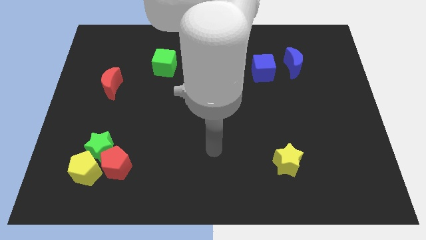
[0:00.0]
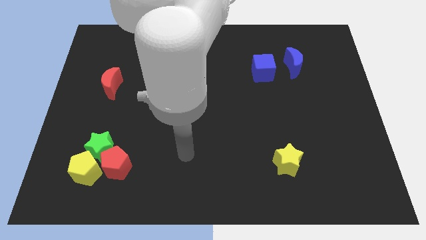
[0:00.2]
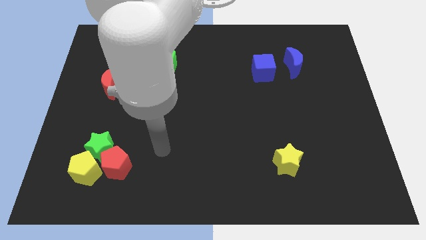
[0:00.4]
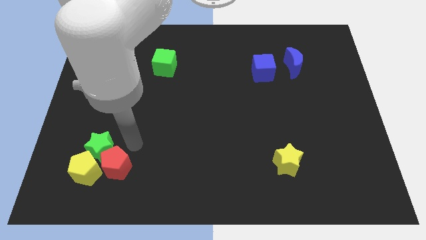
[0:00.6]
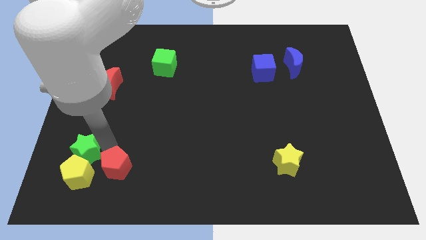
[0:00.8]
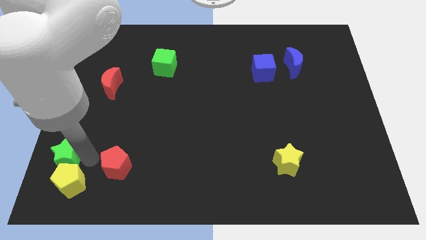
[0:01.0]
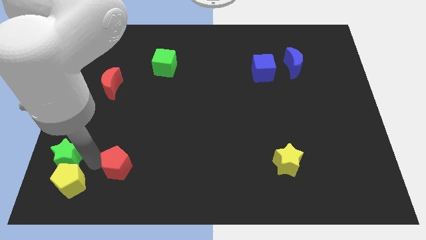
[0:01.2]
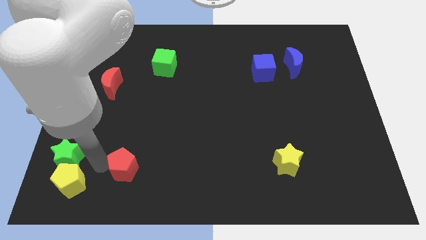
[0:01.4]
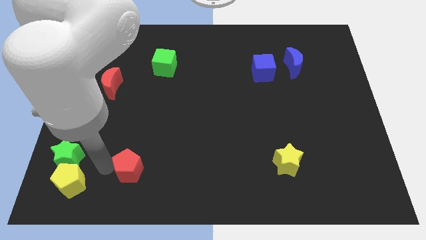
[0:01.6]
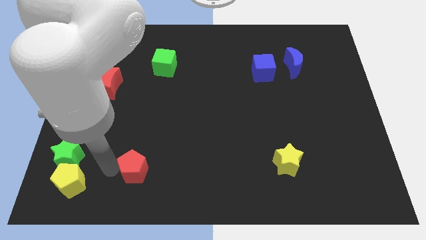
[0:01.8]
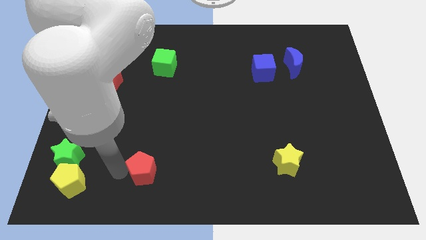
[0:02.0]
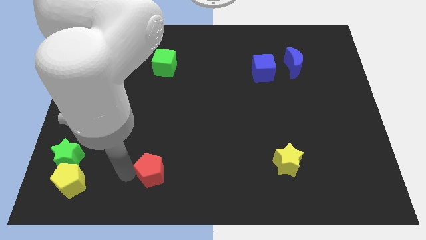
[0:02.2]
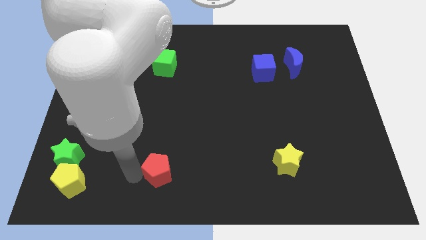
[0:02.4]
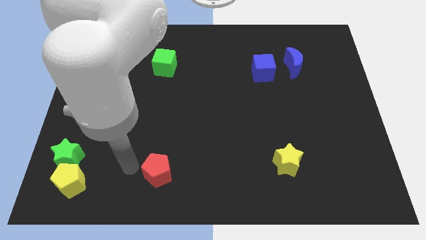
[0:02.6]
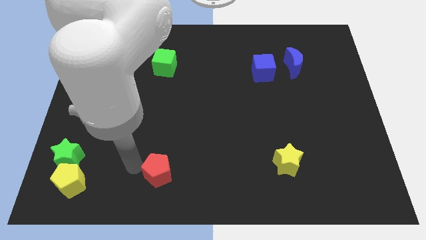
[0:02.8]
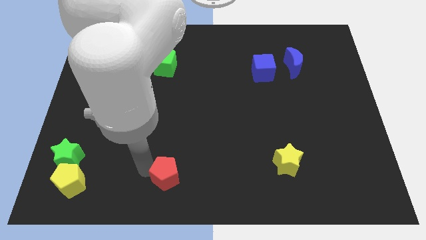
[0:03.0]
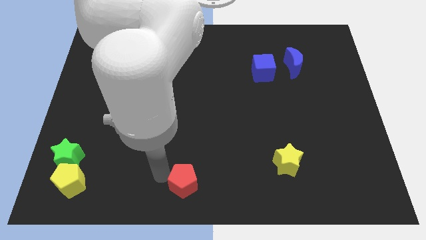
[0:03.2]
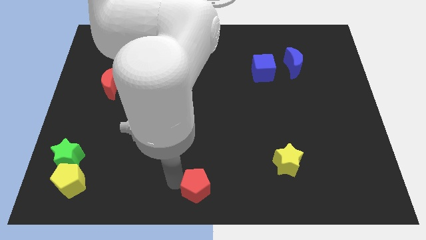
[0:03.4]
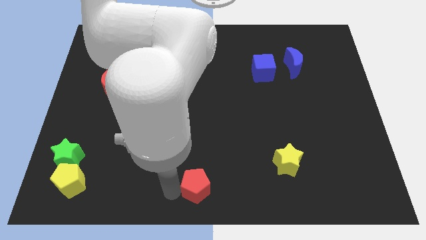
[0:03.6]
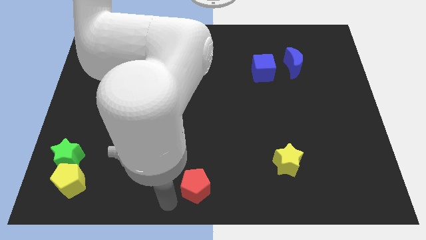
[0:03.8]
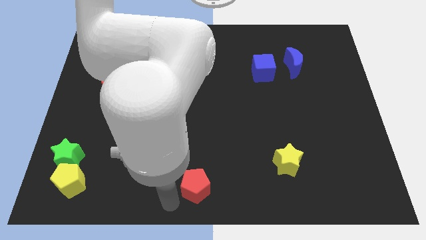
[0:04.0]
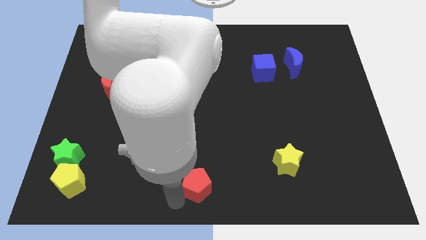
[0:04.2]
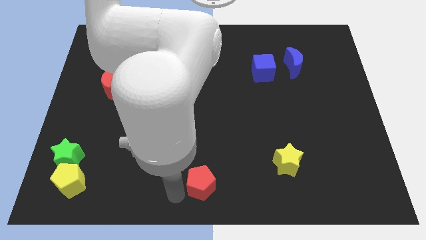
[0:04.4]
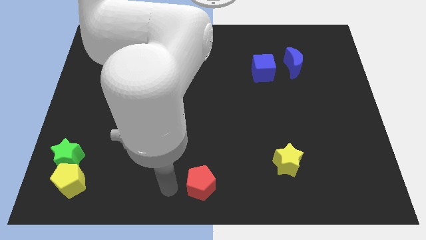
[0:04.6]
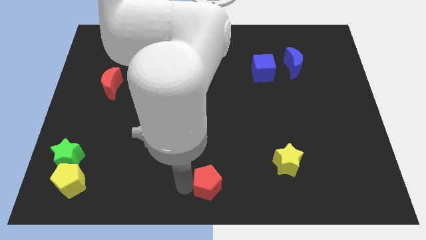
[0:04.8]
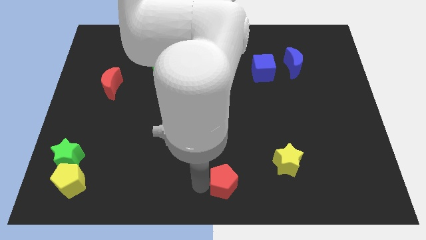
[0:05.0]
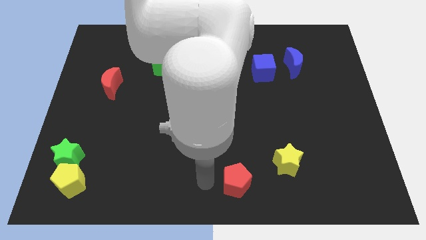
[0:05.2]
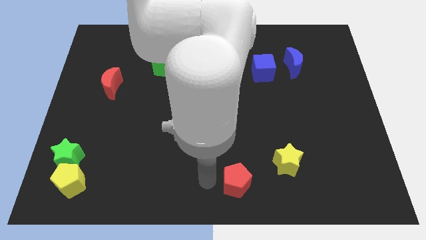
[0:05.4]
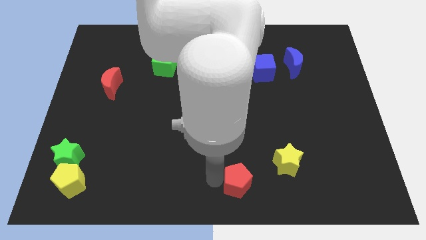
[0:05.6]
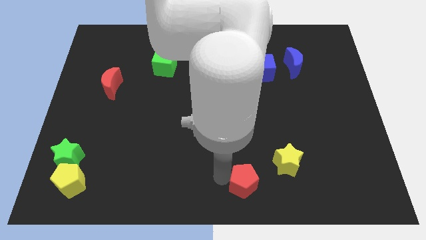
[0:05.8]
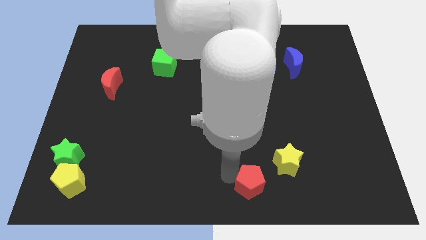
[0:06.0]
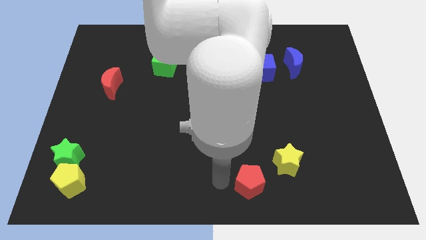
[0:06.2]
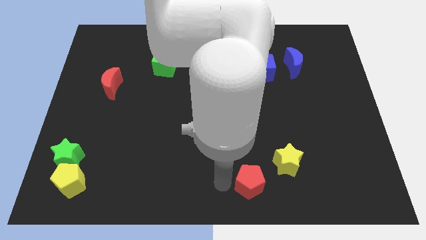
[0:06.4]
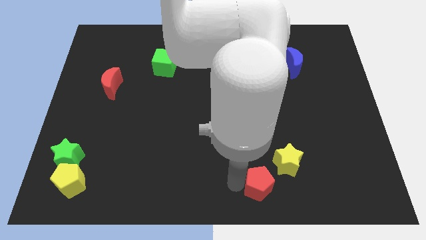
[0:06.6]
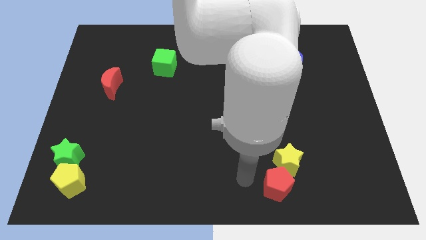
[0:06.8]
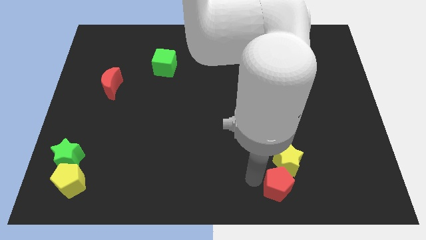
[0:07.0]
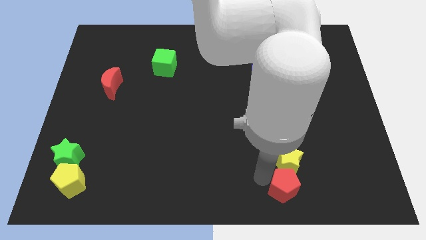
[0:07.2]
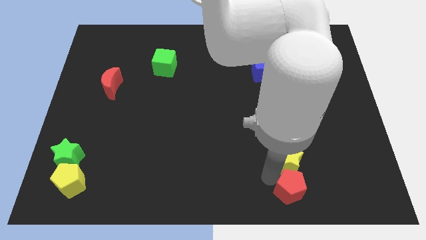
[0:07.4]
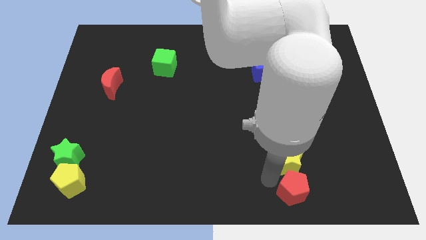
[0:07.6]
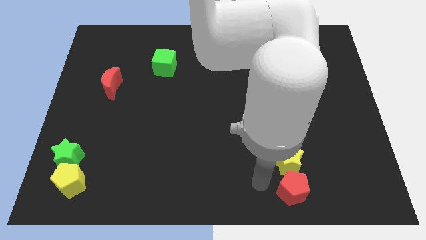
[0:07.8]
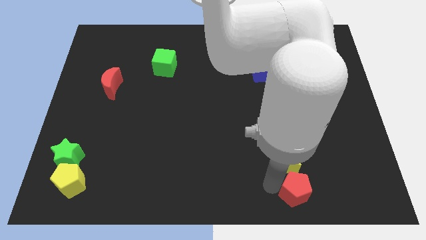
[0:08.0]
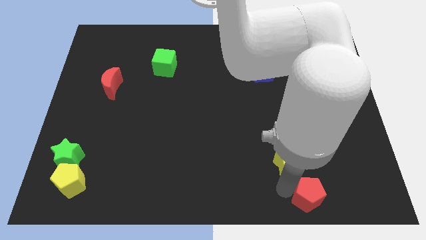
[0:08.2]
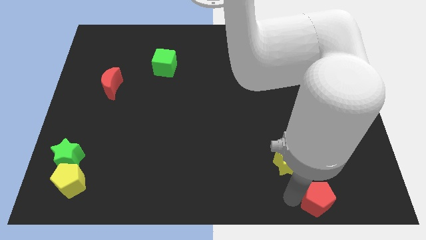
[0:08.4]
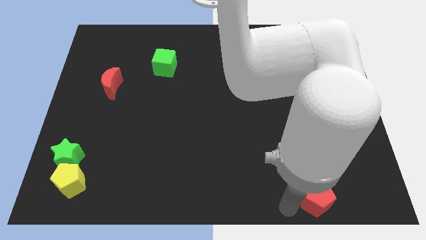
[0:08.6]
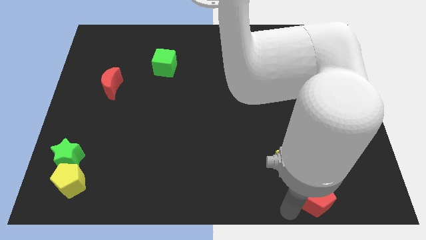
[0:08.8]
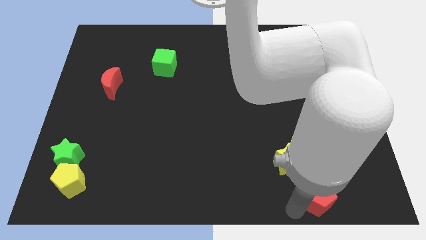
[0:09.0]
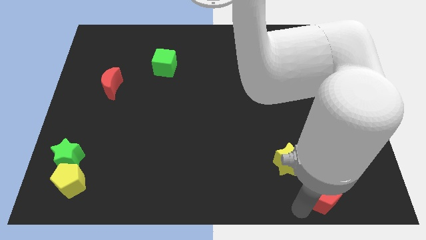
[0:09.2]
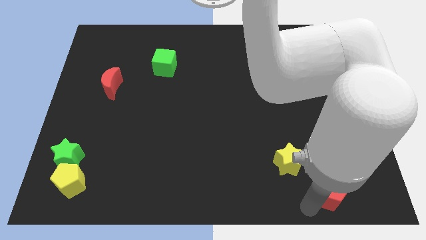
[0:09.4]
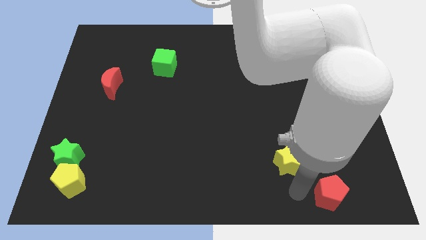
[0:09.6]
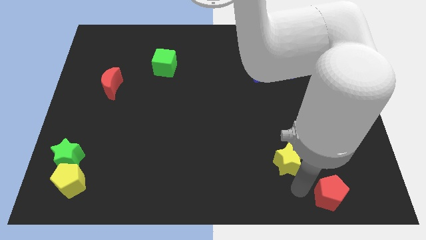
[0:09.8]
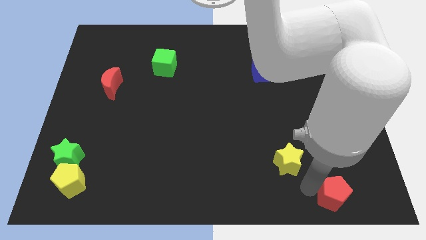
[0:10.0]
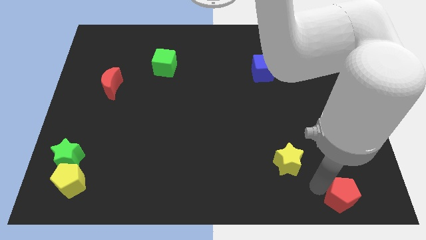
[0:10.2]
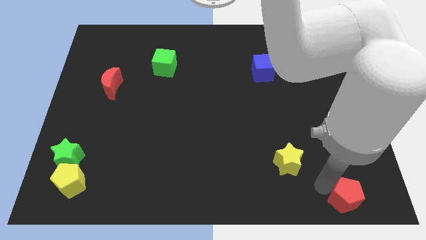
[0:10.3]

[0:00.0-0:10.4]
put the red pentagon to the bottom right

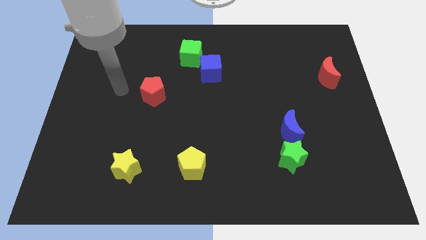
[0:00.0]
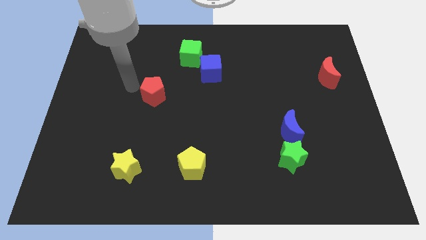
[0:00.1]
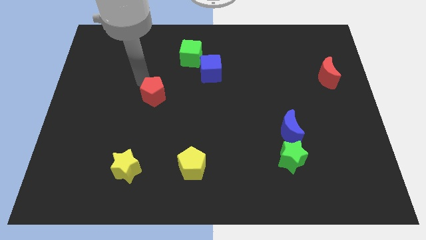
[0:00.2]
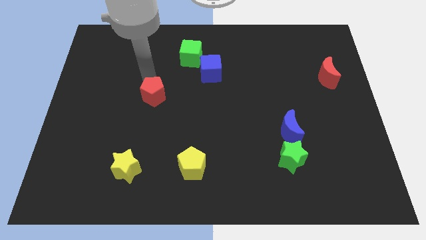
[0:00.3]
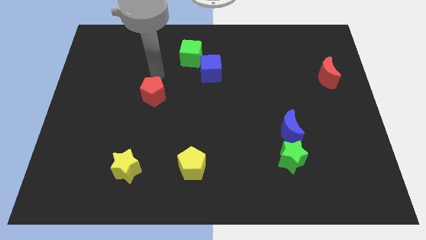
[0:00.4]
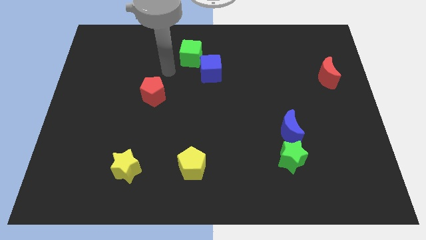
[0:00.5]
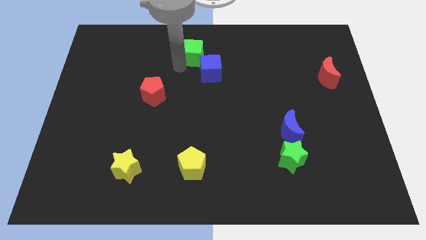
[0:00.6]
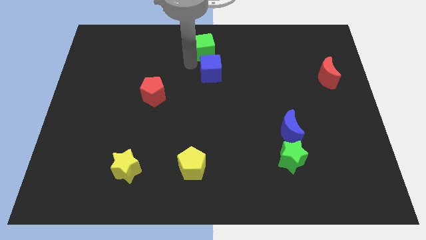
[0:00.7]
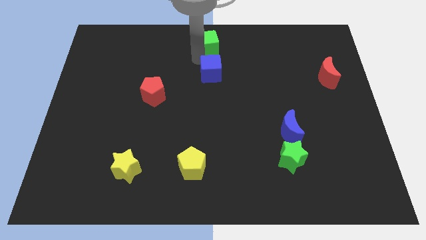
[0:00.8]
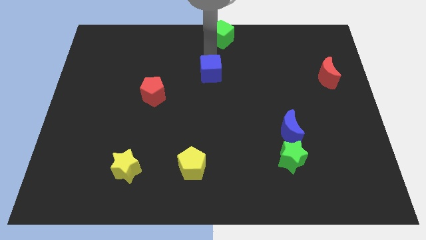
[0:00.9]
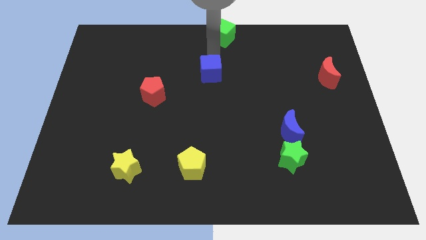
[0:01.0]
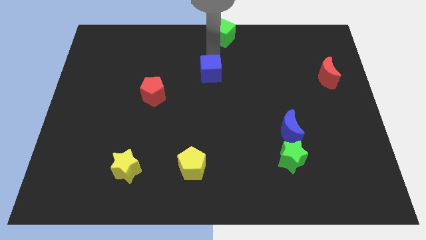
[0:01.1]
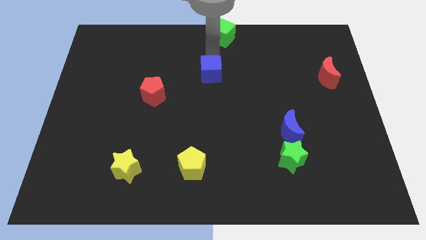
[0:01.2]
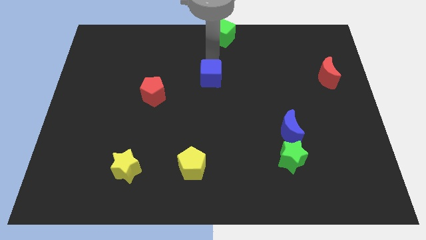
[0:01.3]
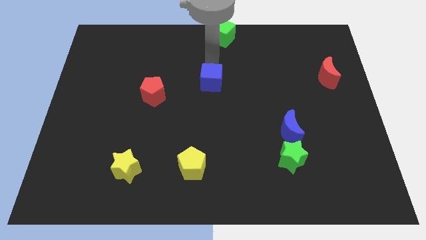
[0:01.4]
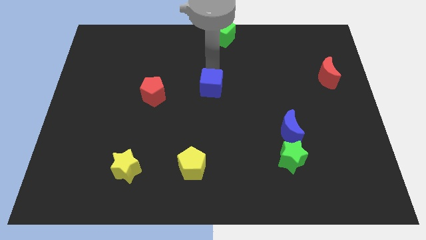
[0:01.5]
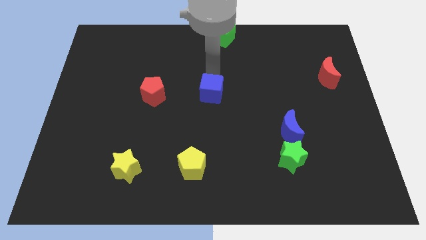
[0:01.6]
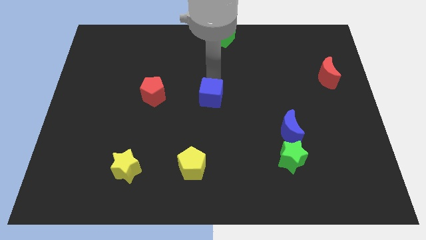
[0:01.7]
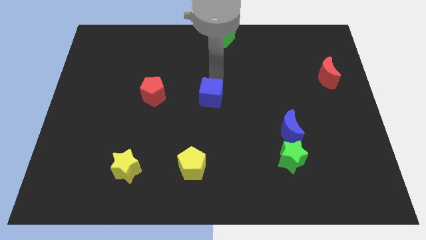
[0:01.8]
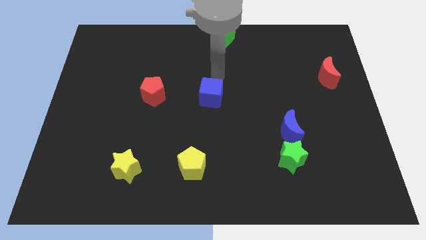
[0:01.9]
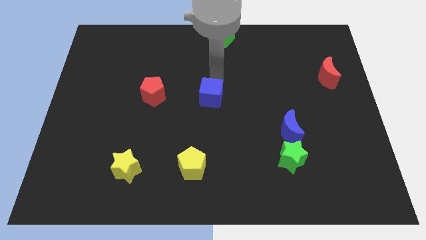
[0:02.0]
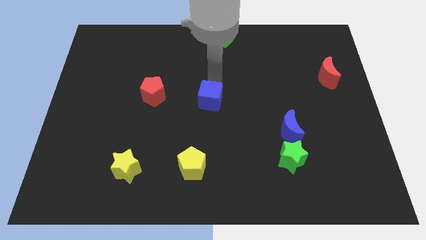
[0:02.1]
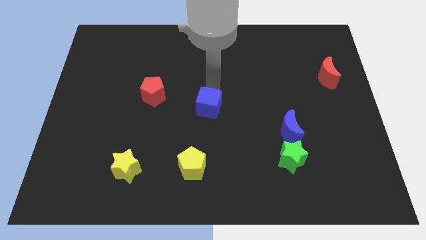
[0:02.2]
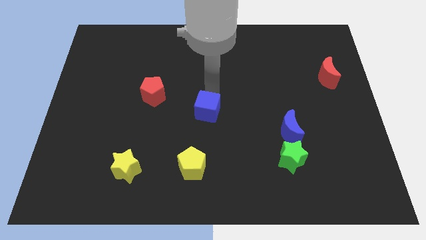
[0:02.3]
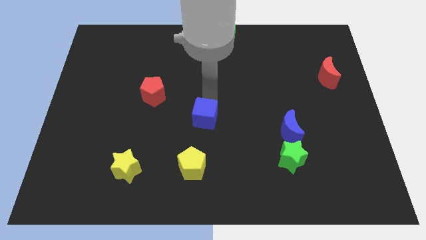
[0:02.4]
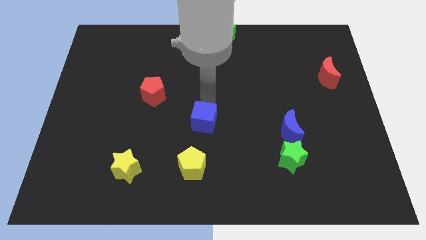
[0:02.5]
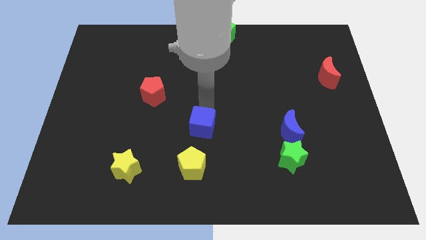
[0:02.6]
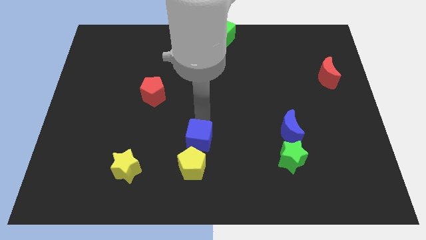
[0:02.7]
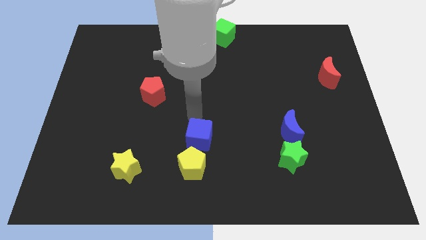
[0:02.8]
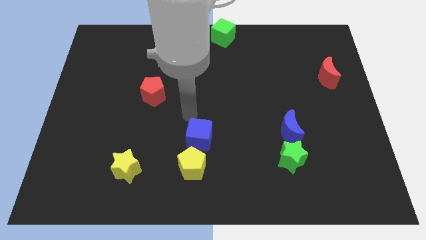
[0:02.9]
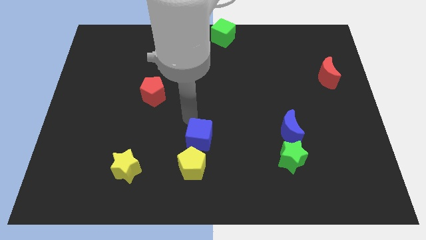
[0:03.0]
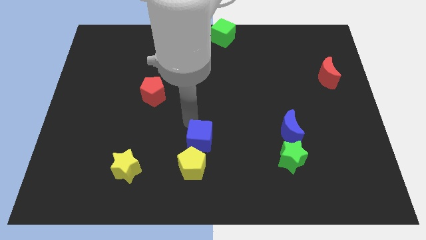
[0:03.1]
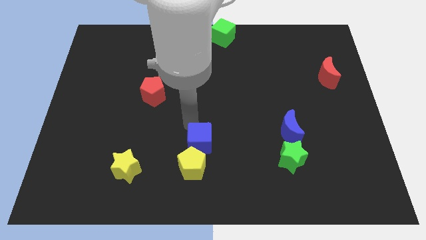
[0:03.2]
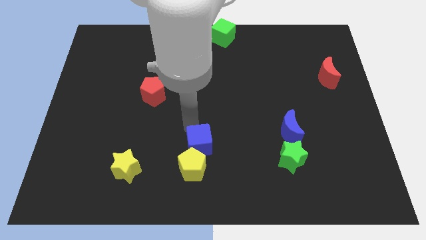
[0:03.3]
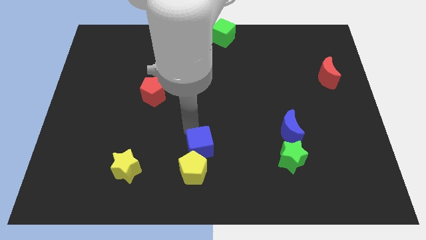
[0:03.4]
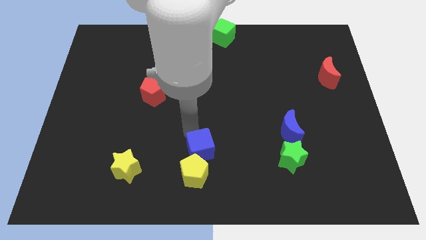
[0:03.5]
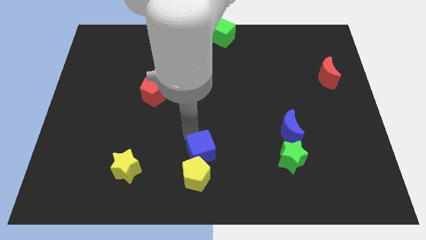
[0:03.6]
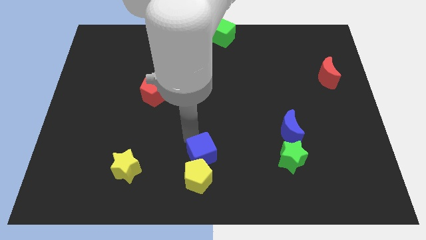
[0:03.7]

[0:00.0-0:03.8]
move the blue cube to the bottom side
